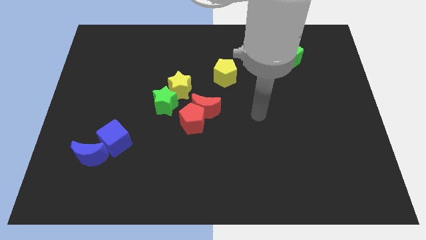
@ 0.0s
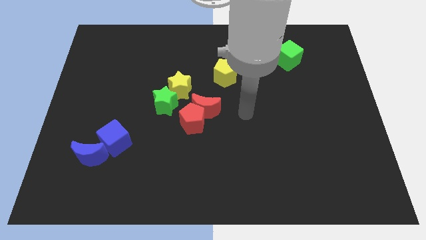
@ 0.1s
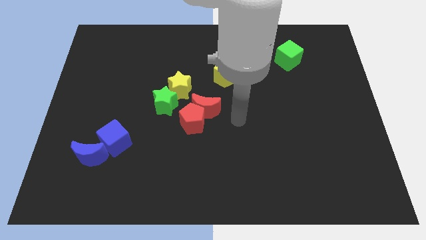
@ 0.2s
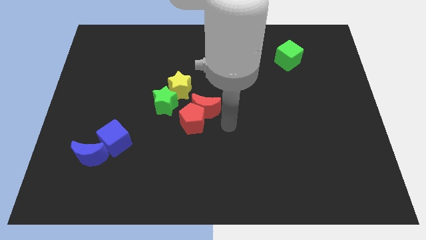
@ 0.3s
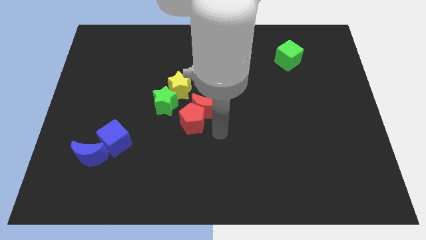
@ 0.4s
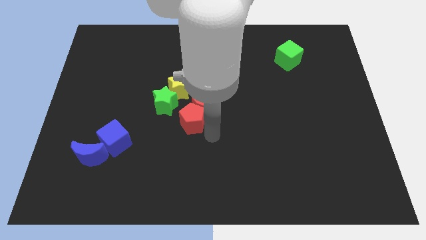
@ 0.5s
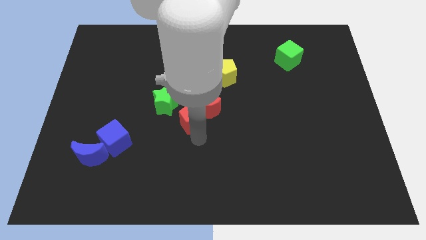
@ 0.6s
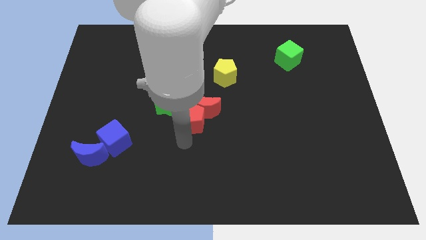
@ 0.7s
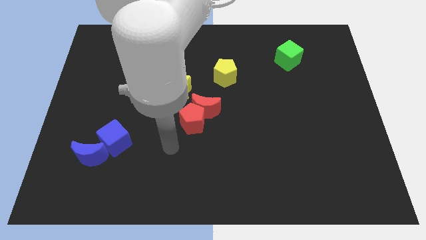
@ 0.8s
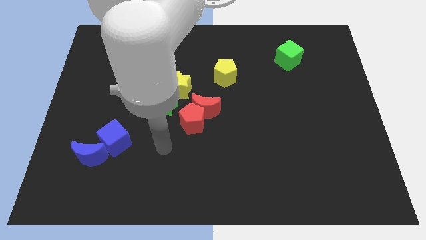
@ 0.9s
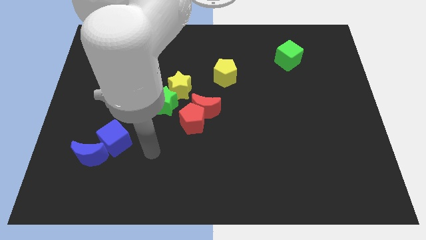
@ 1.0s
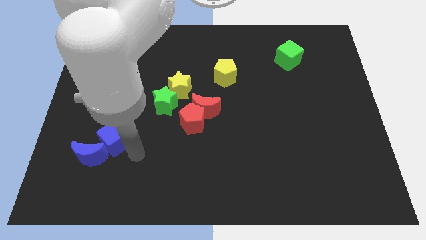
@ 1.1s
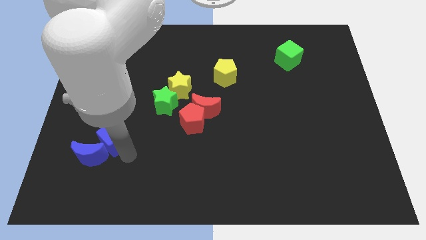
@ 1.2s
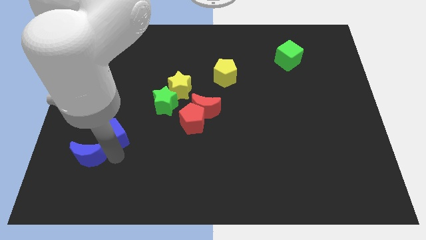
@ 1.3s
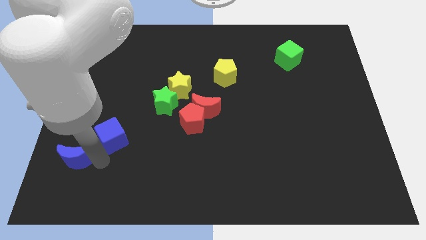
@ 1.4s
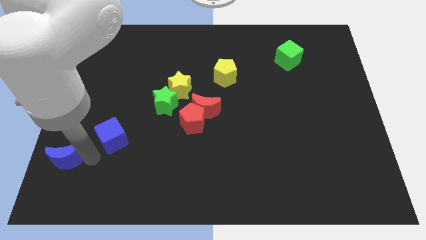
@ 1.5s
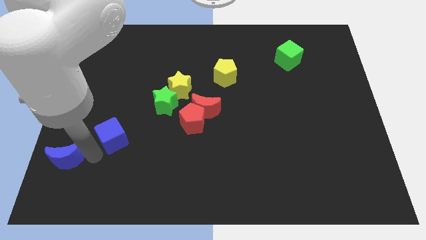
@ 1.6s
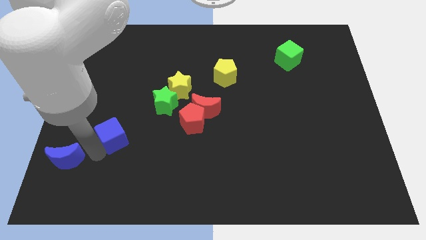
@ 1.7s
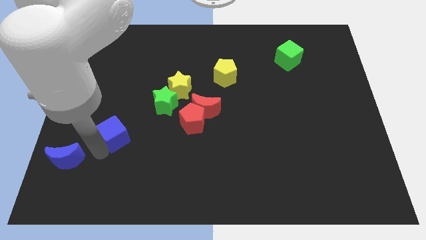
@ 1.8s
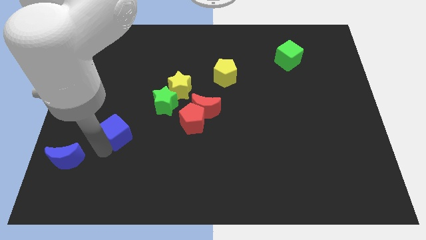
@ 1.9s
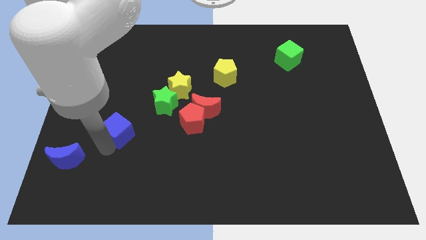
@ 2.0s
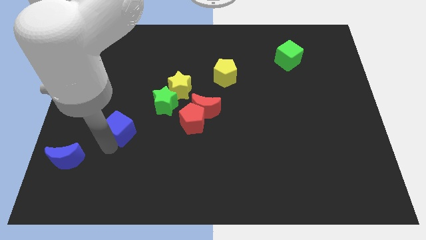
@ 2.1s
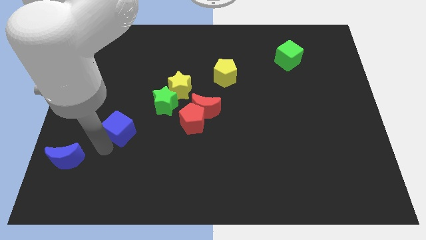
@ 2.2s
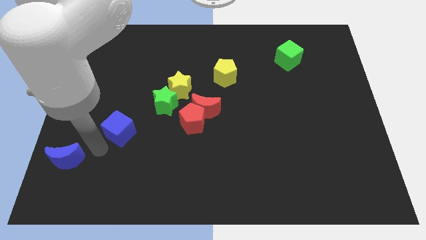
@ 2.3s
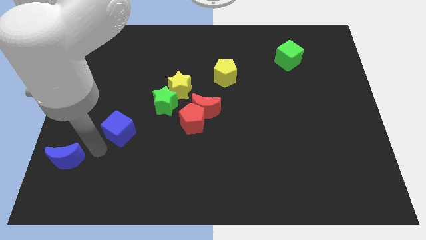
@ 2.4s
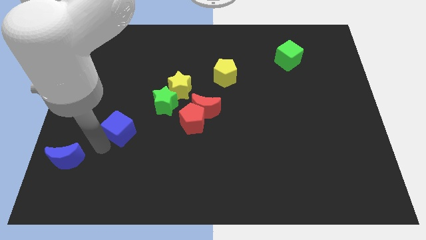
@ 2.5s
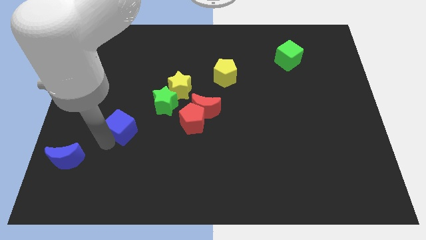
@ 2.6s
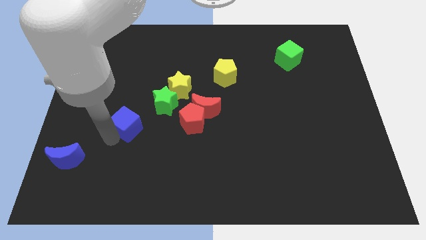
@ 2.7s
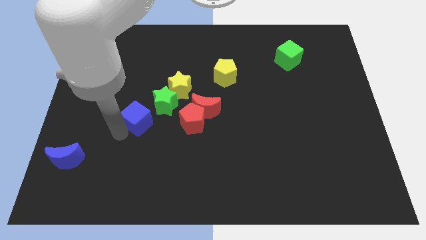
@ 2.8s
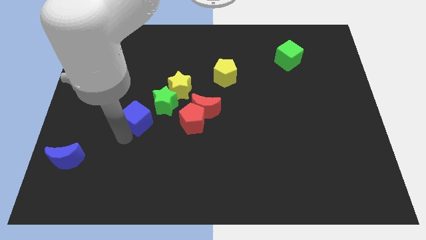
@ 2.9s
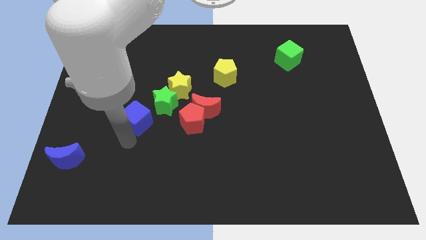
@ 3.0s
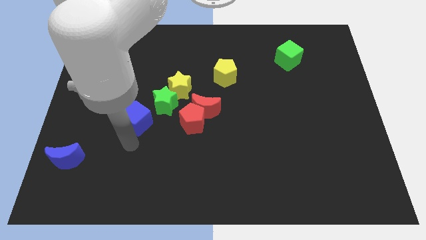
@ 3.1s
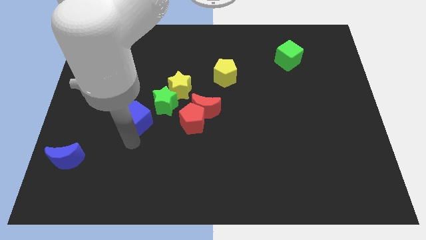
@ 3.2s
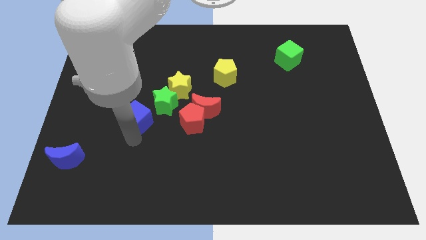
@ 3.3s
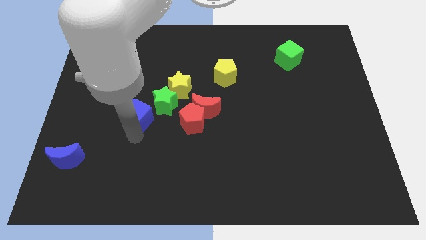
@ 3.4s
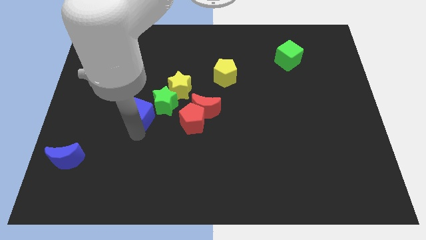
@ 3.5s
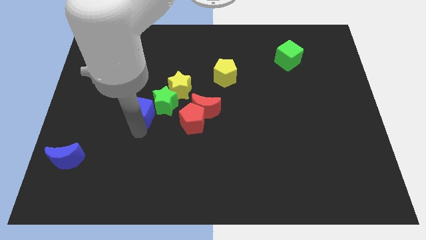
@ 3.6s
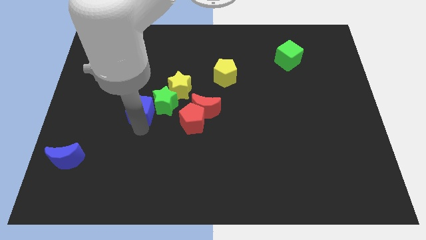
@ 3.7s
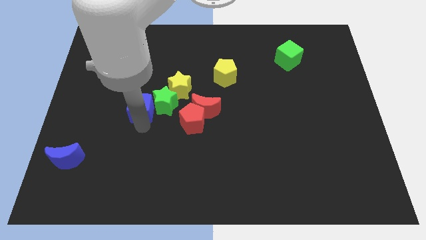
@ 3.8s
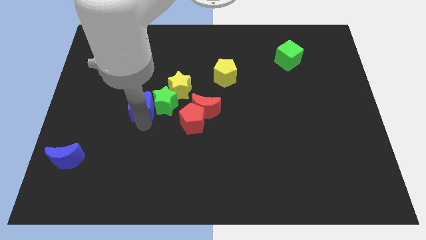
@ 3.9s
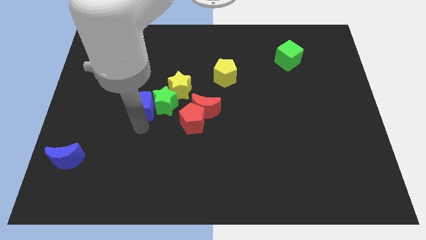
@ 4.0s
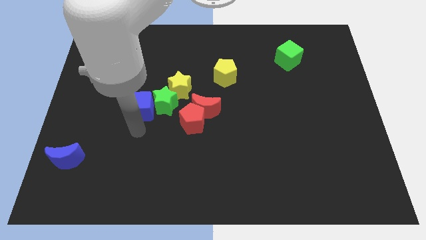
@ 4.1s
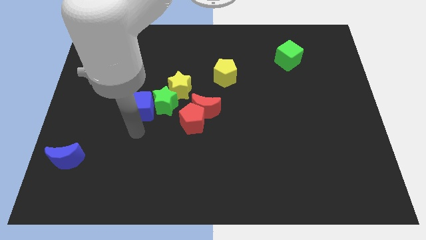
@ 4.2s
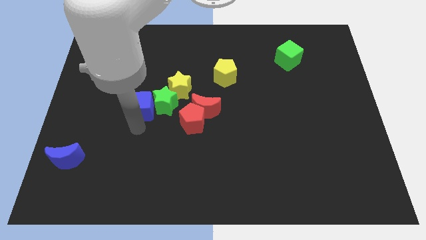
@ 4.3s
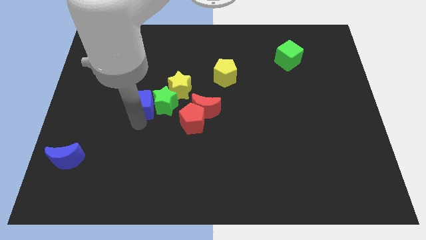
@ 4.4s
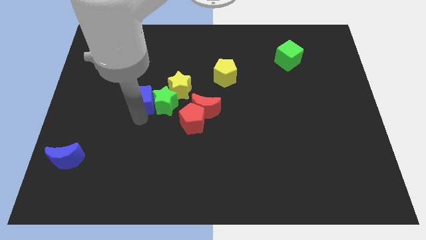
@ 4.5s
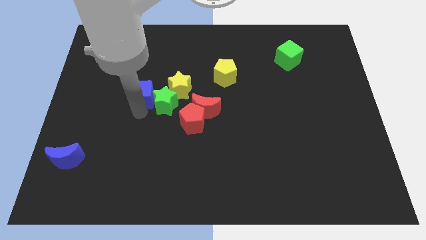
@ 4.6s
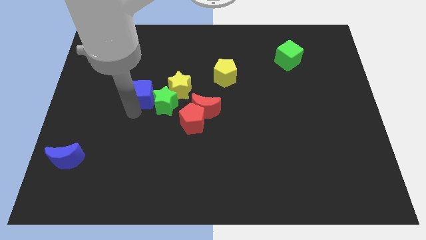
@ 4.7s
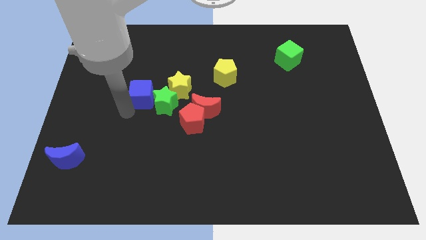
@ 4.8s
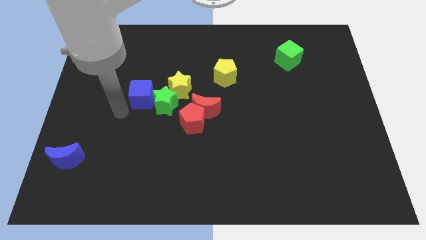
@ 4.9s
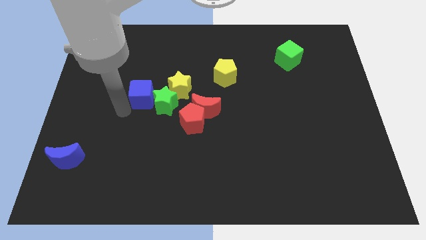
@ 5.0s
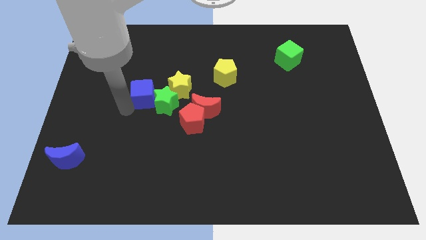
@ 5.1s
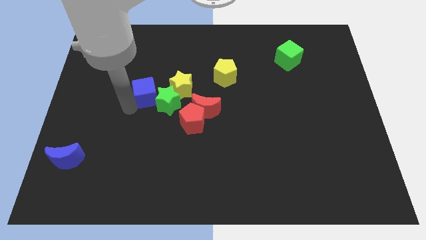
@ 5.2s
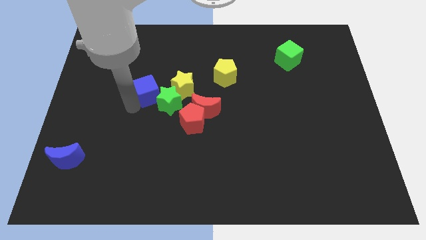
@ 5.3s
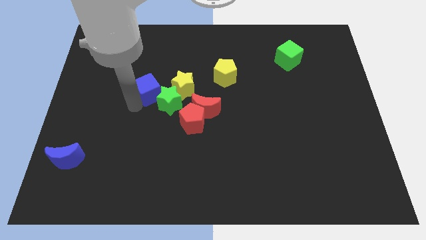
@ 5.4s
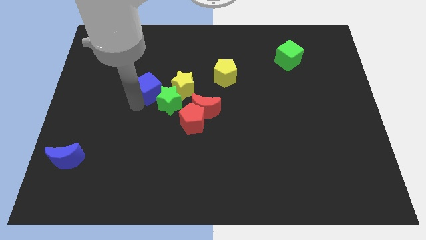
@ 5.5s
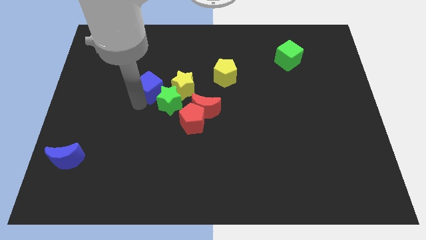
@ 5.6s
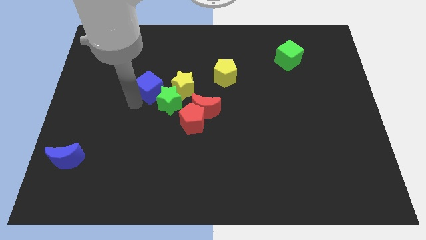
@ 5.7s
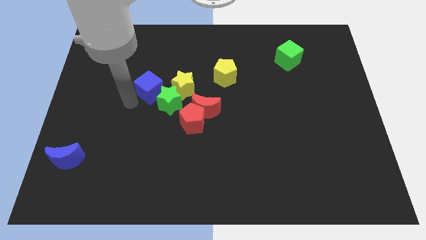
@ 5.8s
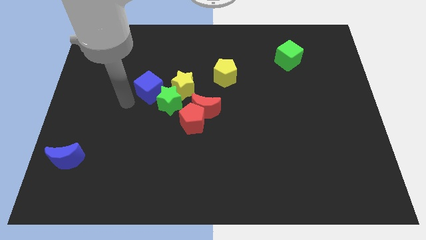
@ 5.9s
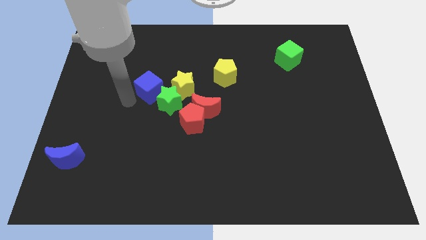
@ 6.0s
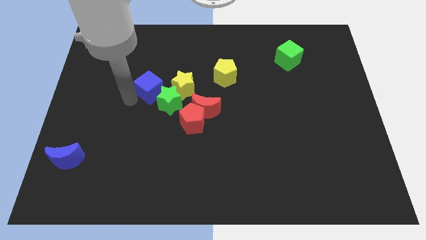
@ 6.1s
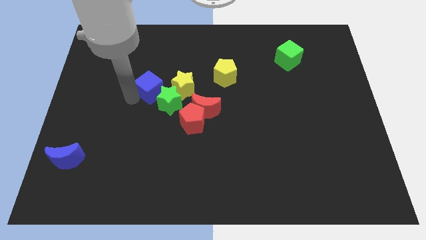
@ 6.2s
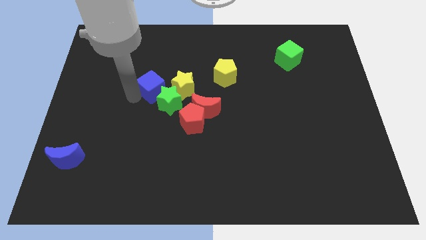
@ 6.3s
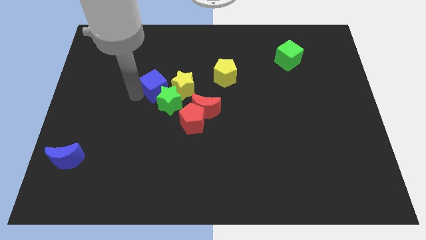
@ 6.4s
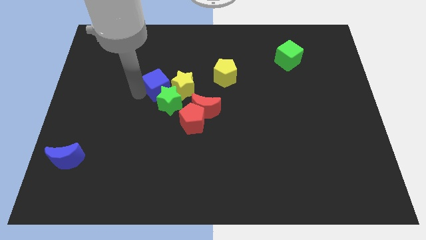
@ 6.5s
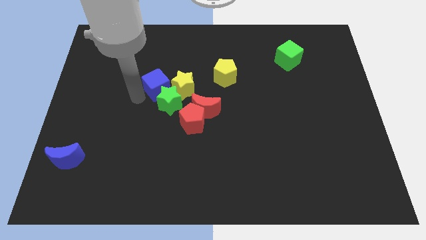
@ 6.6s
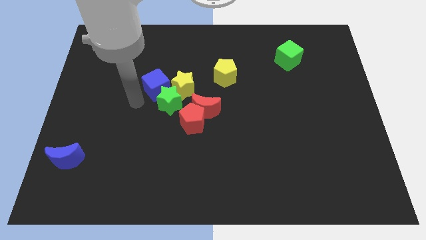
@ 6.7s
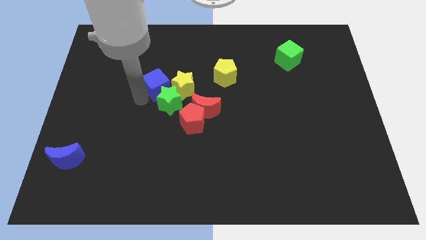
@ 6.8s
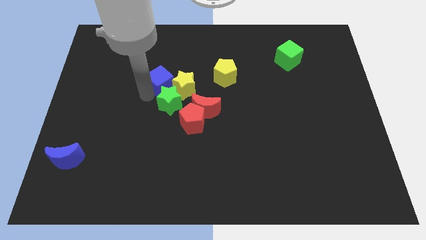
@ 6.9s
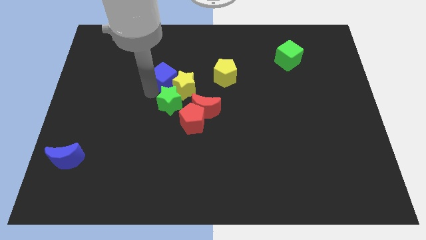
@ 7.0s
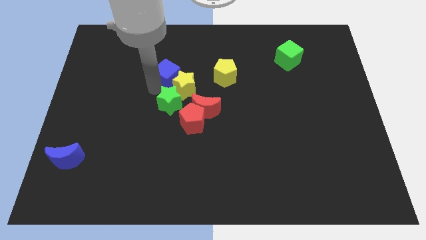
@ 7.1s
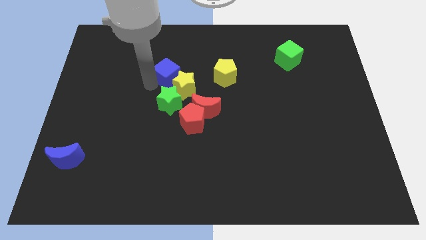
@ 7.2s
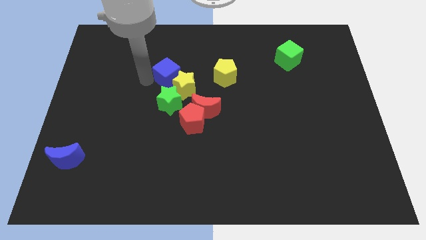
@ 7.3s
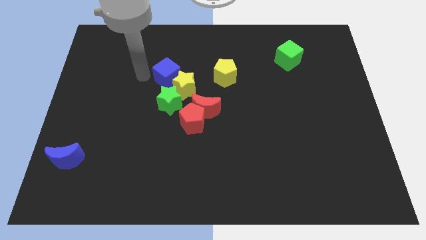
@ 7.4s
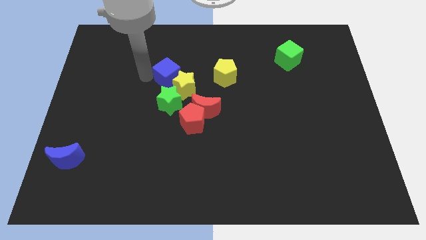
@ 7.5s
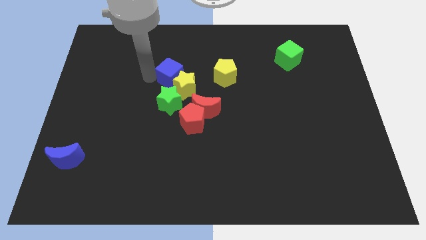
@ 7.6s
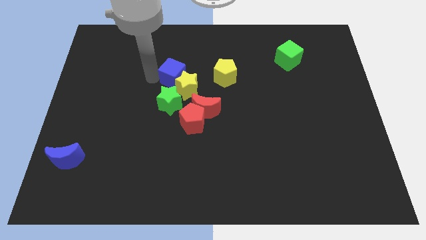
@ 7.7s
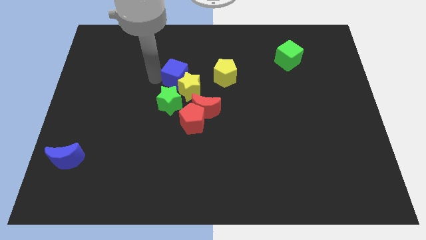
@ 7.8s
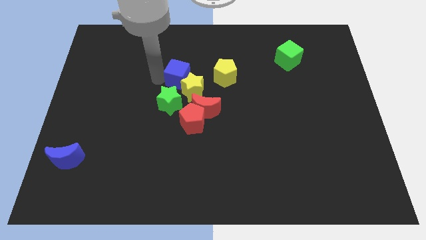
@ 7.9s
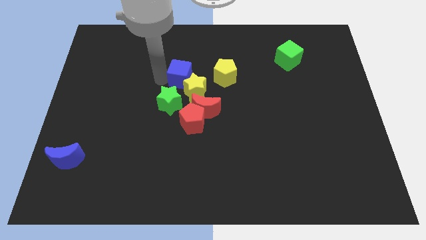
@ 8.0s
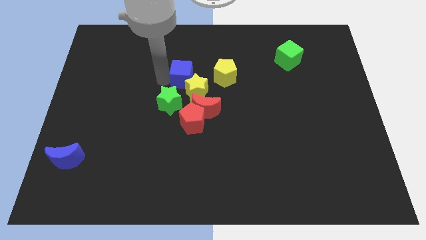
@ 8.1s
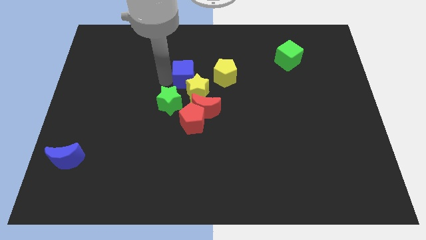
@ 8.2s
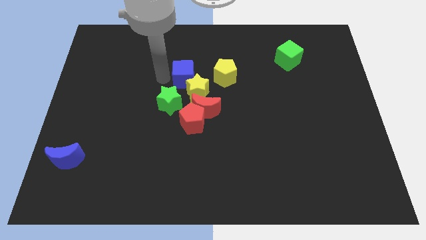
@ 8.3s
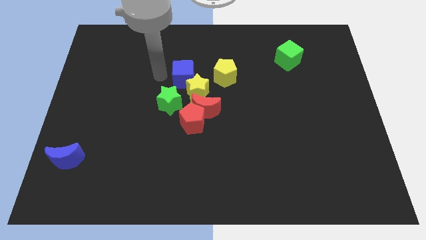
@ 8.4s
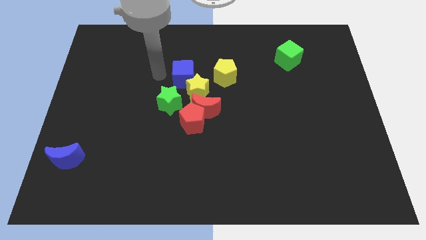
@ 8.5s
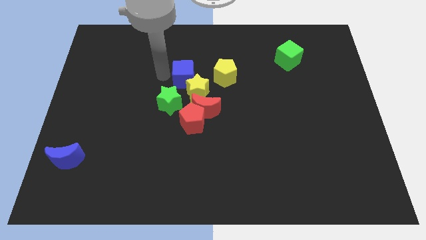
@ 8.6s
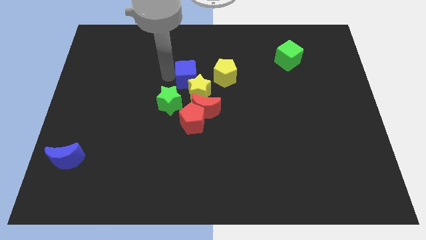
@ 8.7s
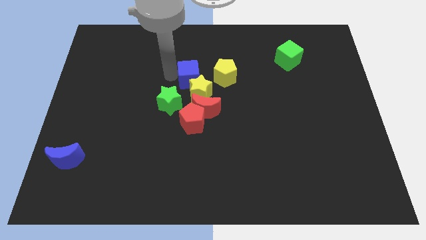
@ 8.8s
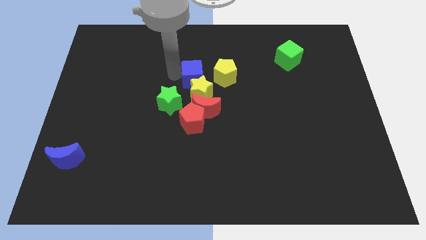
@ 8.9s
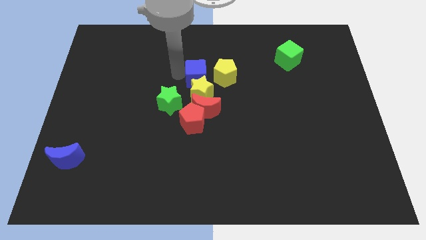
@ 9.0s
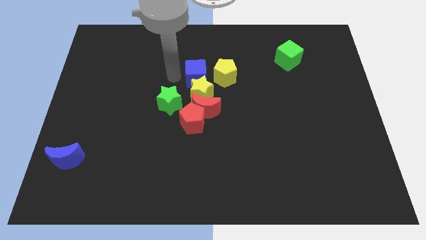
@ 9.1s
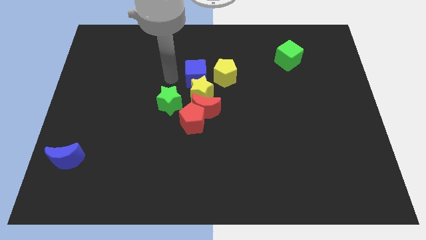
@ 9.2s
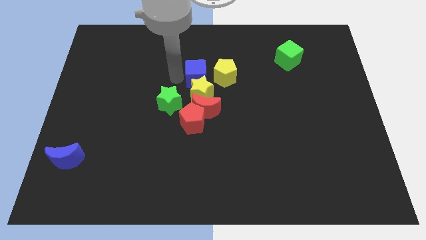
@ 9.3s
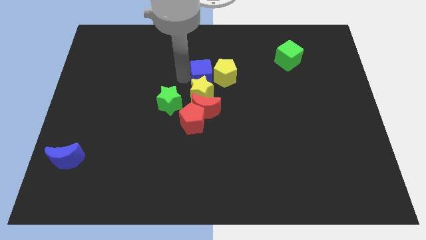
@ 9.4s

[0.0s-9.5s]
slide the blue cube to the yellow pentagon
